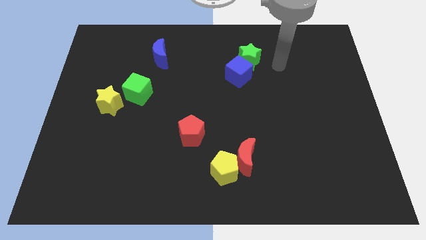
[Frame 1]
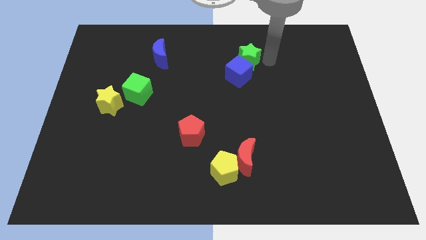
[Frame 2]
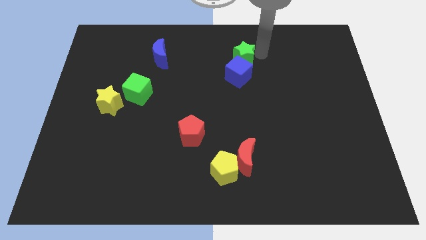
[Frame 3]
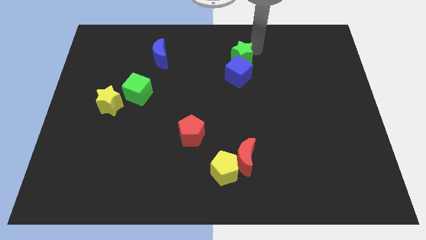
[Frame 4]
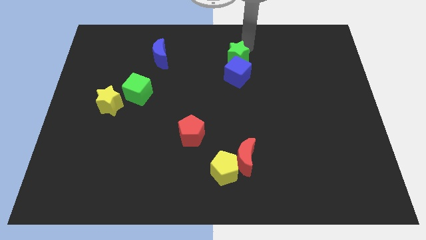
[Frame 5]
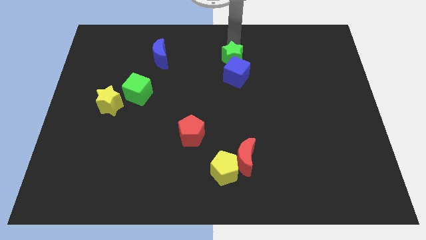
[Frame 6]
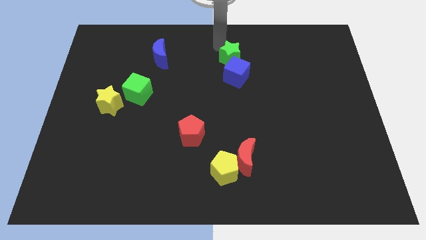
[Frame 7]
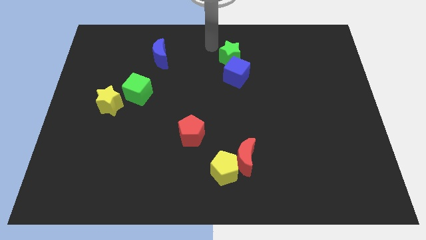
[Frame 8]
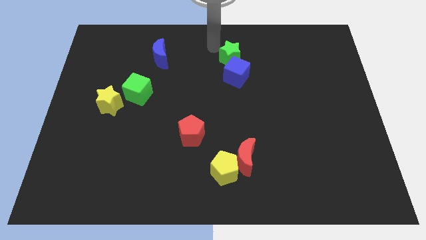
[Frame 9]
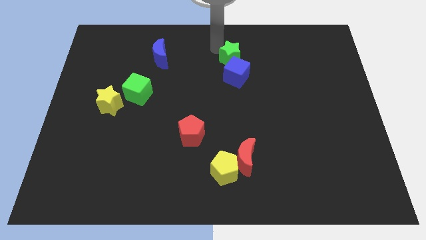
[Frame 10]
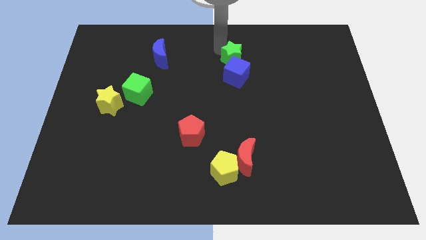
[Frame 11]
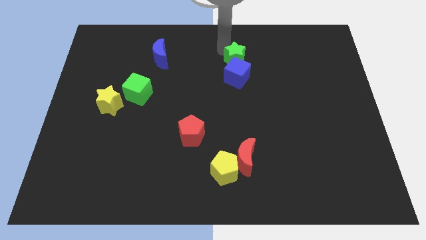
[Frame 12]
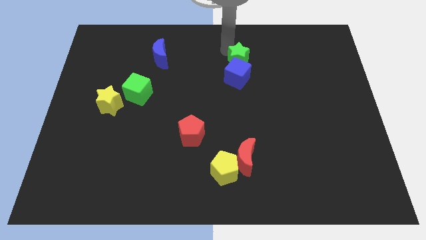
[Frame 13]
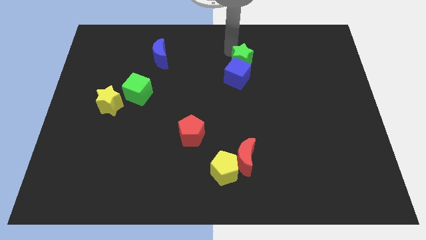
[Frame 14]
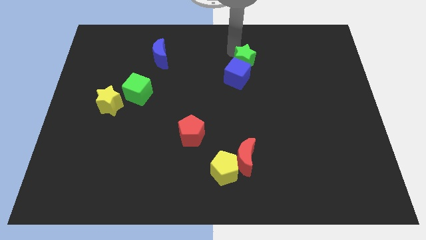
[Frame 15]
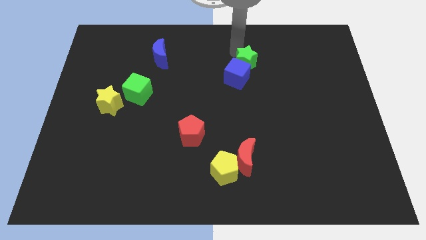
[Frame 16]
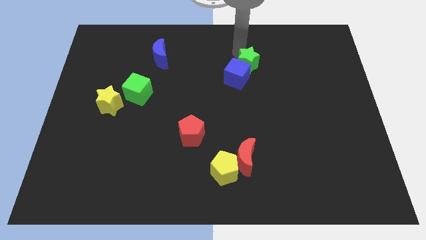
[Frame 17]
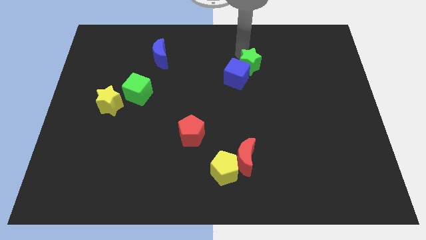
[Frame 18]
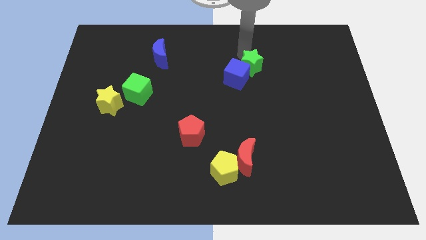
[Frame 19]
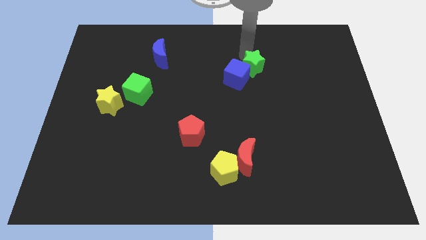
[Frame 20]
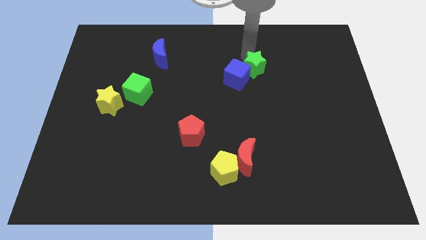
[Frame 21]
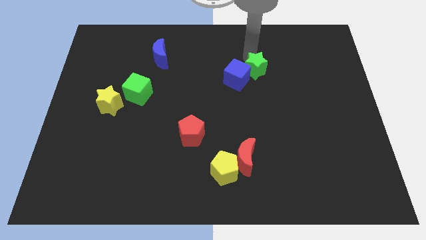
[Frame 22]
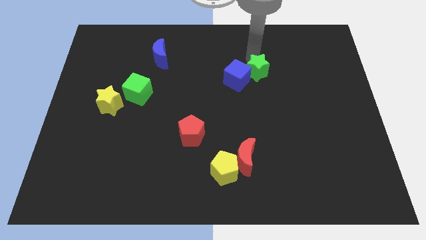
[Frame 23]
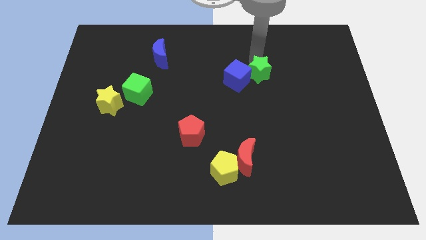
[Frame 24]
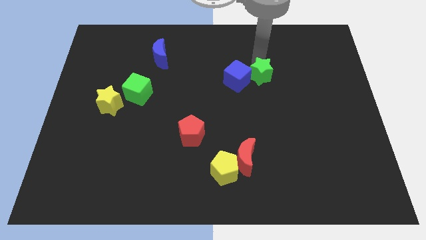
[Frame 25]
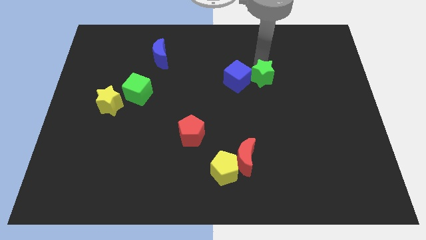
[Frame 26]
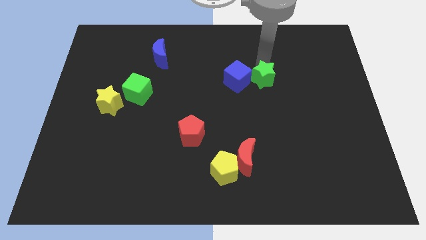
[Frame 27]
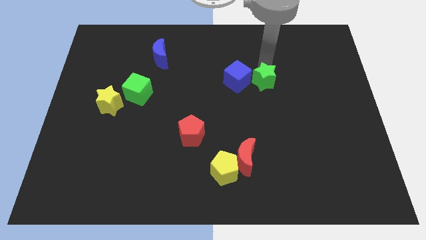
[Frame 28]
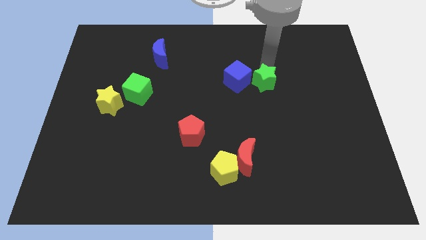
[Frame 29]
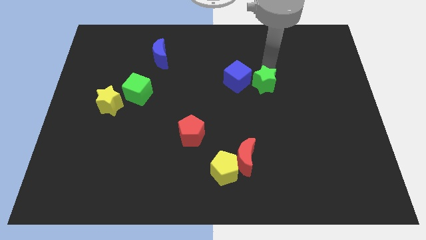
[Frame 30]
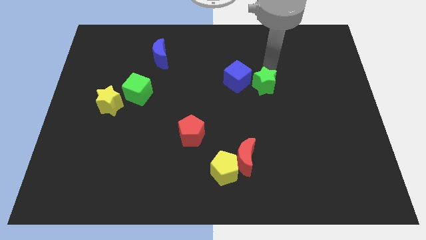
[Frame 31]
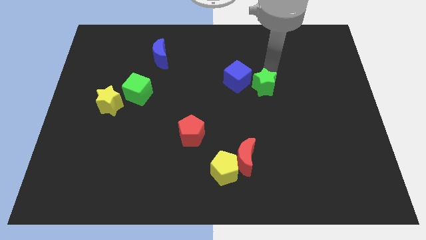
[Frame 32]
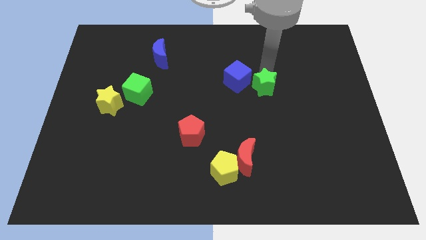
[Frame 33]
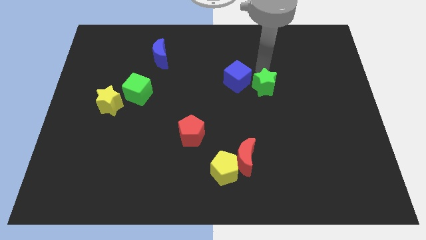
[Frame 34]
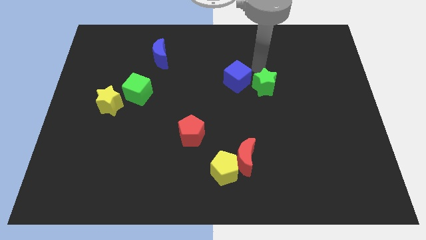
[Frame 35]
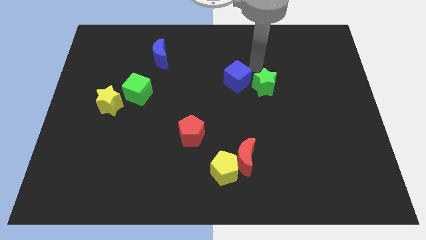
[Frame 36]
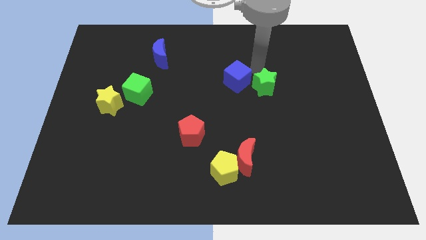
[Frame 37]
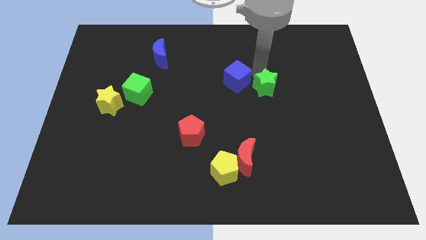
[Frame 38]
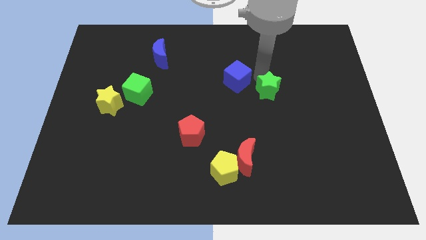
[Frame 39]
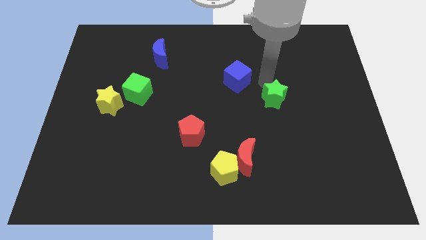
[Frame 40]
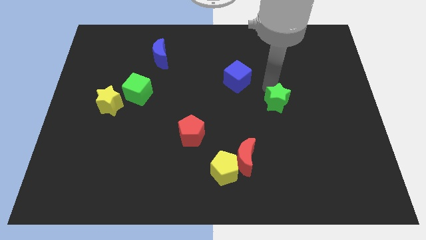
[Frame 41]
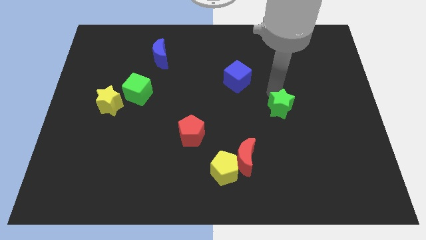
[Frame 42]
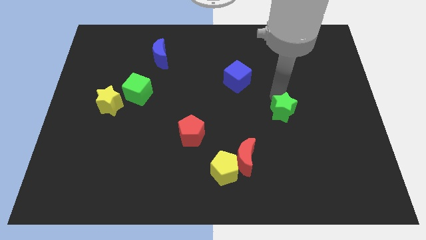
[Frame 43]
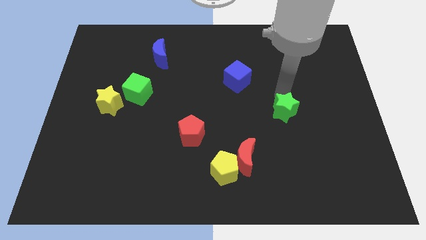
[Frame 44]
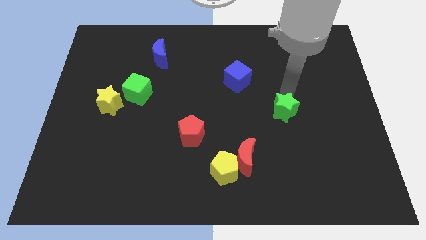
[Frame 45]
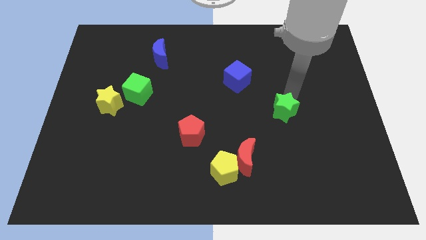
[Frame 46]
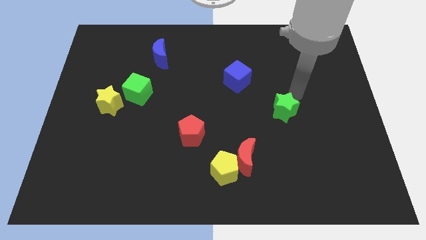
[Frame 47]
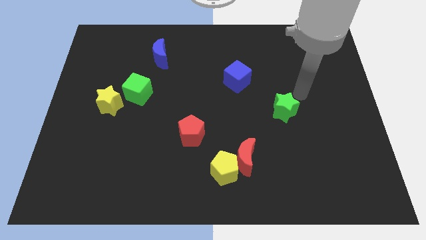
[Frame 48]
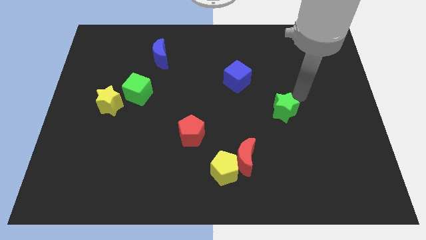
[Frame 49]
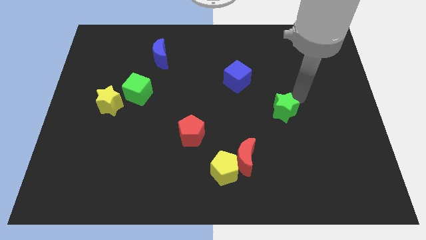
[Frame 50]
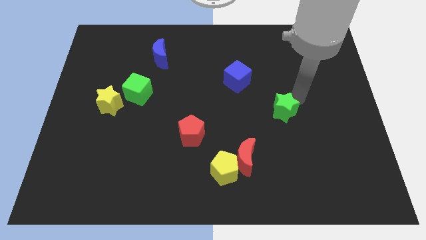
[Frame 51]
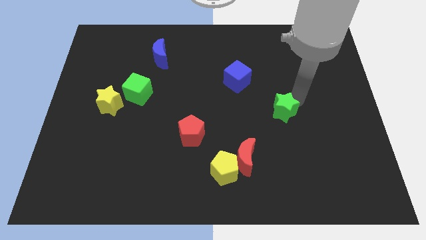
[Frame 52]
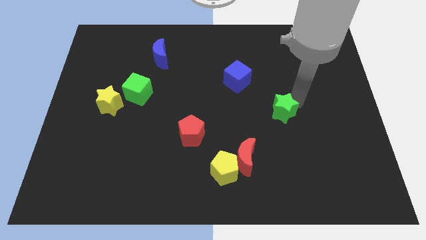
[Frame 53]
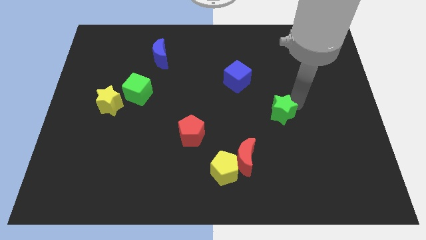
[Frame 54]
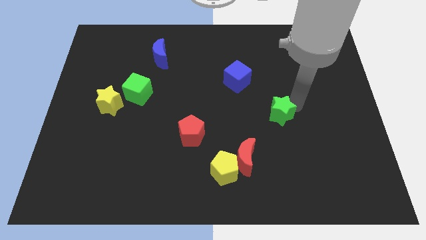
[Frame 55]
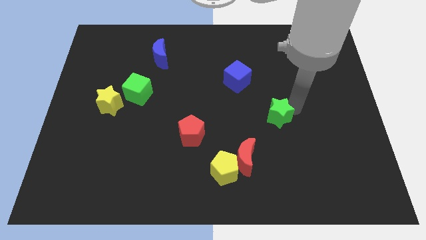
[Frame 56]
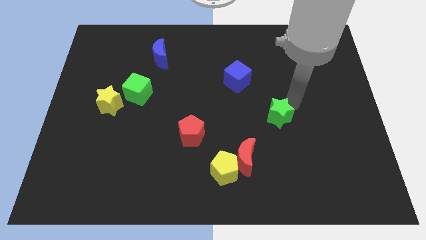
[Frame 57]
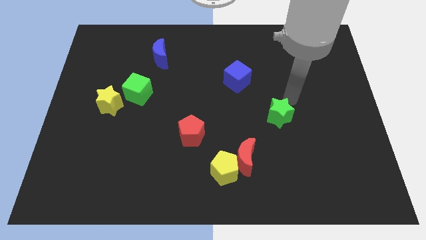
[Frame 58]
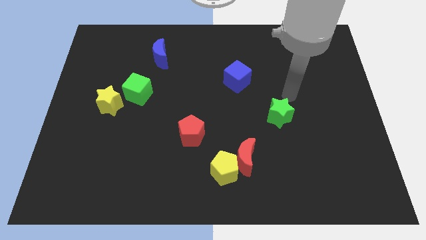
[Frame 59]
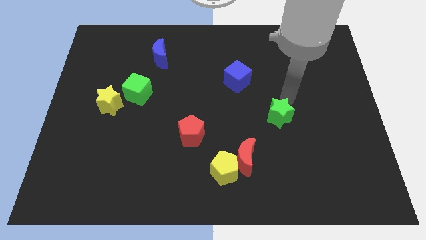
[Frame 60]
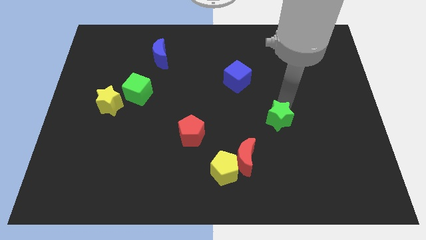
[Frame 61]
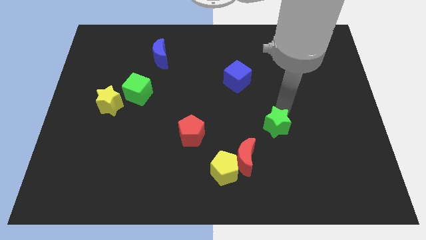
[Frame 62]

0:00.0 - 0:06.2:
move the green star to the top right of the red moon

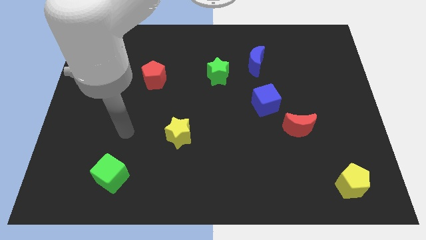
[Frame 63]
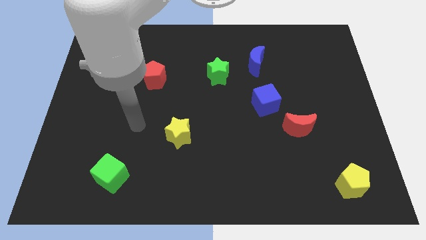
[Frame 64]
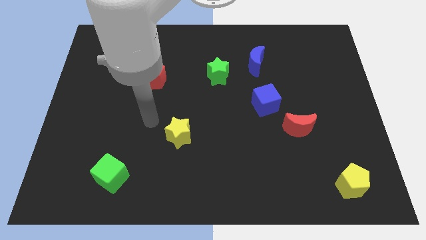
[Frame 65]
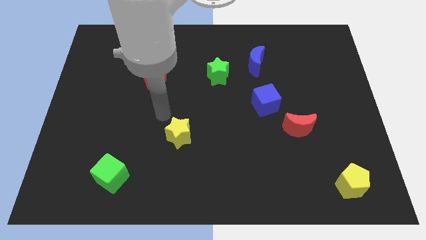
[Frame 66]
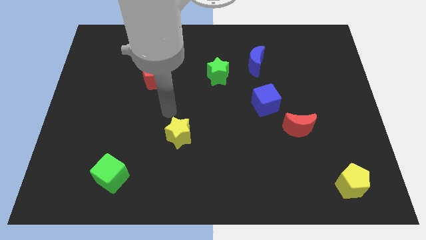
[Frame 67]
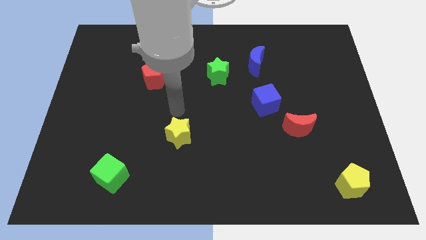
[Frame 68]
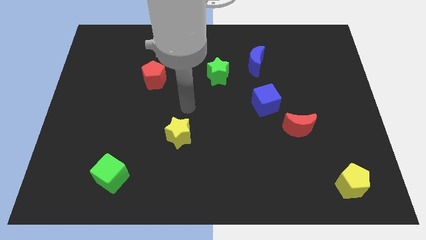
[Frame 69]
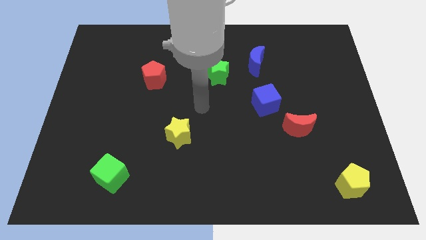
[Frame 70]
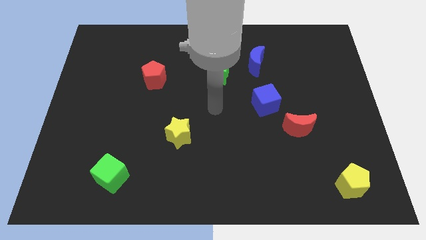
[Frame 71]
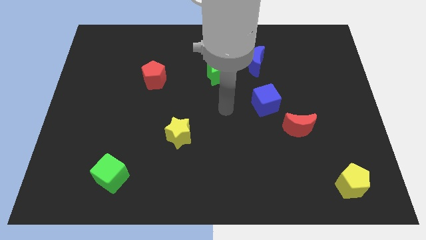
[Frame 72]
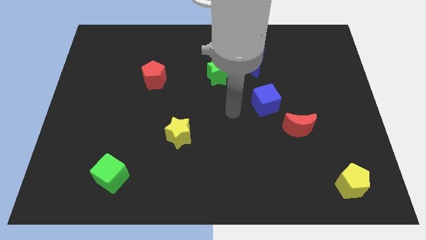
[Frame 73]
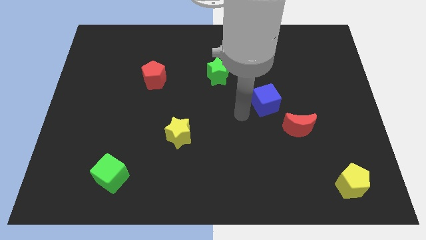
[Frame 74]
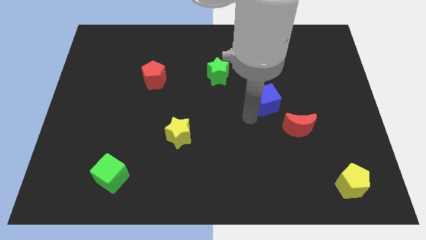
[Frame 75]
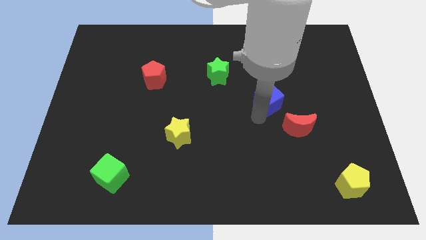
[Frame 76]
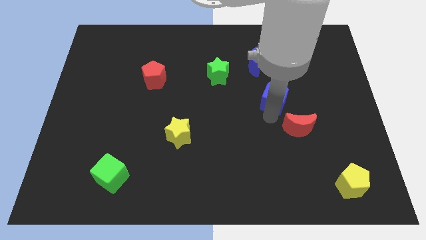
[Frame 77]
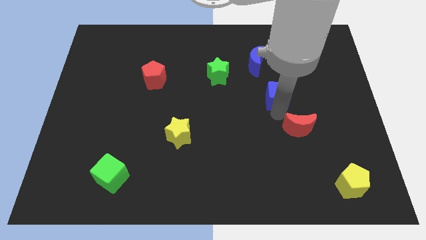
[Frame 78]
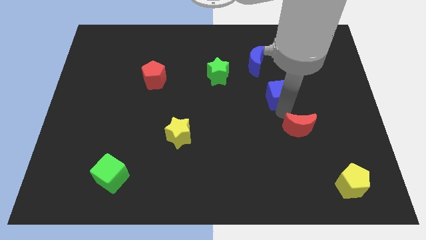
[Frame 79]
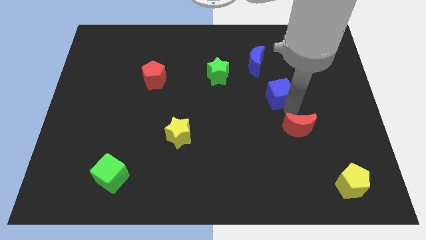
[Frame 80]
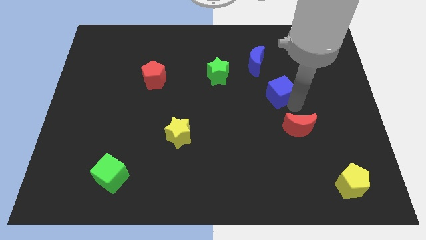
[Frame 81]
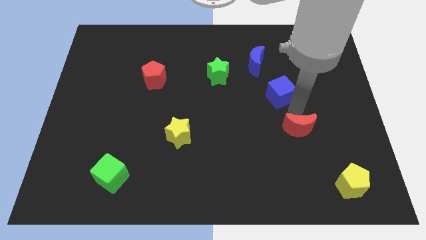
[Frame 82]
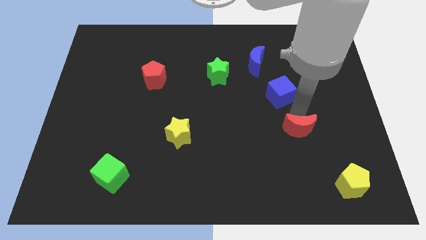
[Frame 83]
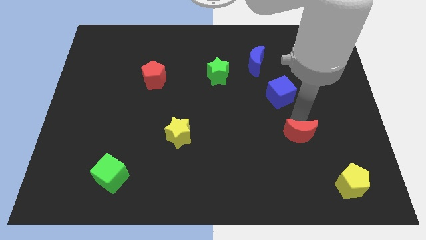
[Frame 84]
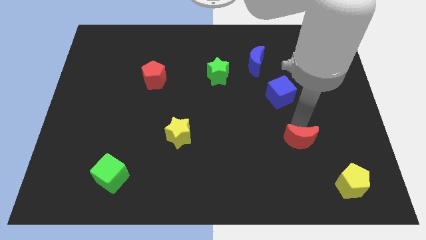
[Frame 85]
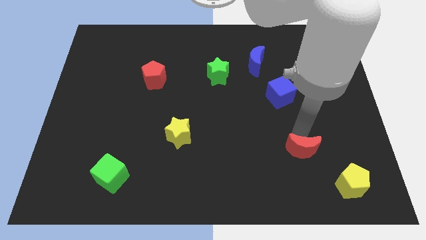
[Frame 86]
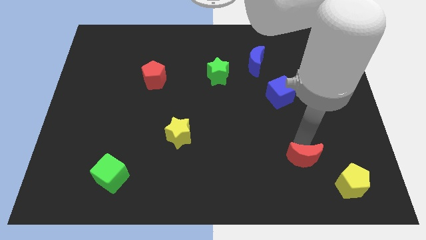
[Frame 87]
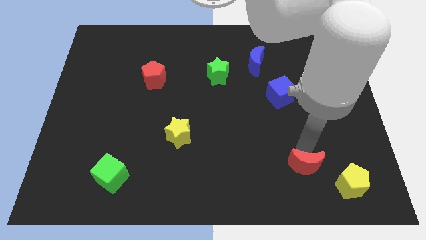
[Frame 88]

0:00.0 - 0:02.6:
push the red moon left of the yellow pentagon

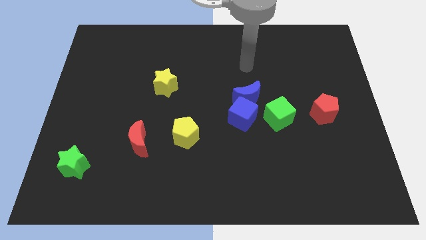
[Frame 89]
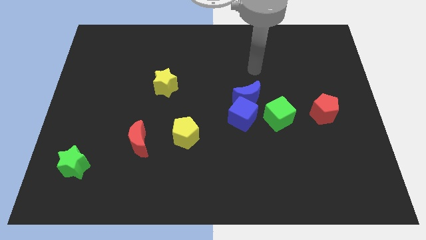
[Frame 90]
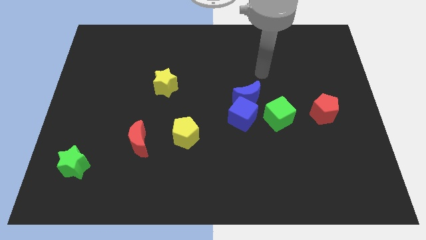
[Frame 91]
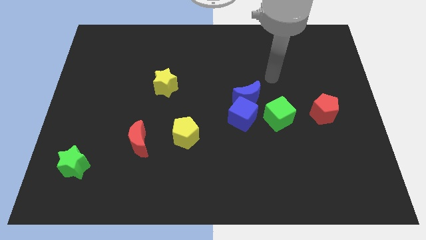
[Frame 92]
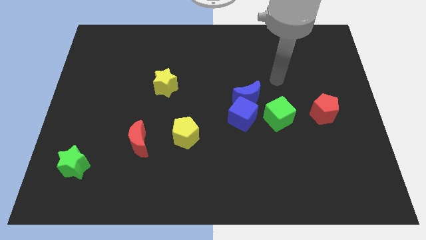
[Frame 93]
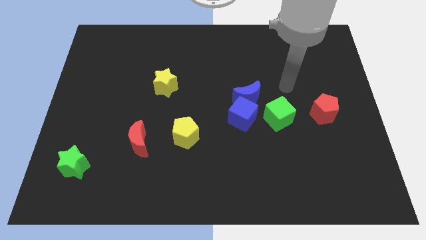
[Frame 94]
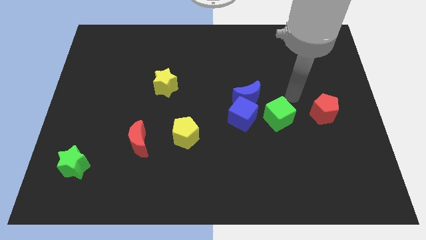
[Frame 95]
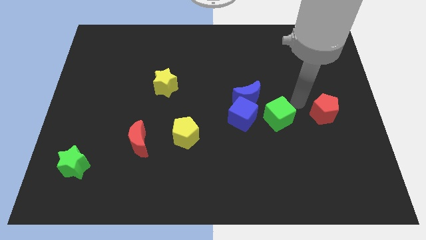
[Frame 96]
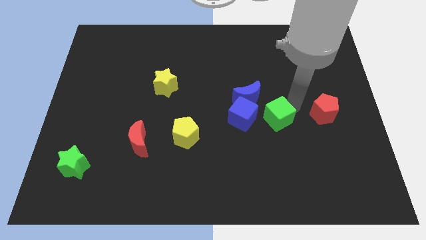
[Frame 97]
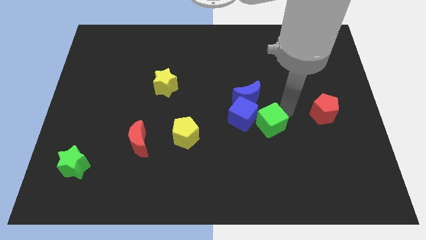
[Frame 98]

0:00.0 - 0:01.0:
put the green cube below the blue moon
